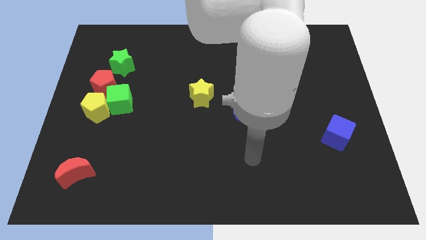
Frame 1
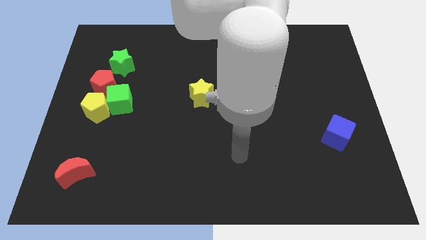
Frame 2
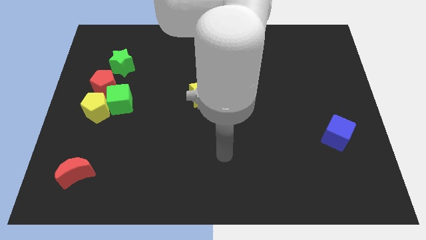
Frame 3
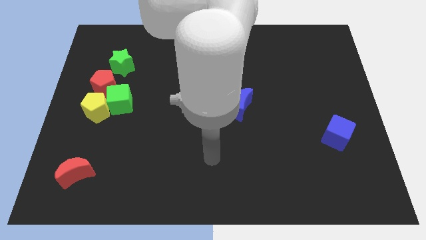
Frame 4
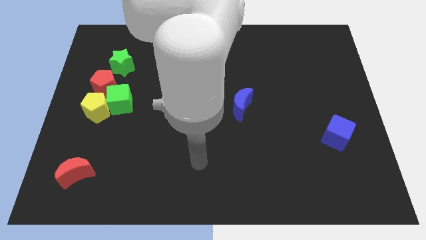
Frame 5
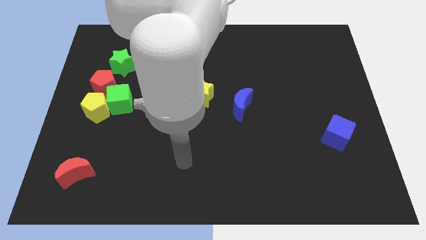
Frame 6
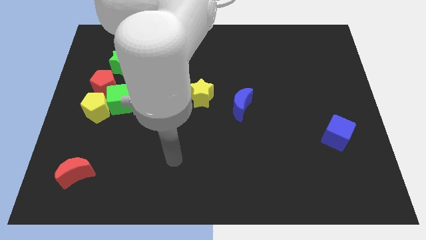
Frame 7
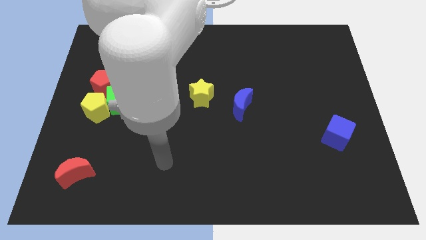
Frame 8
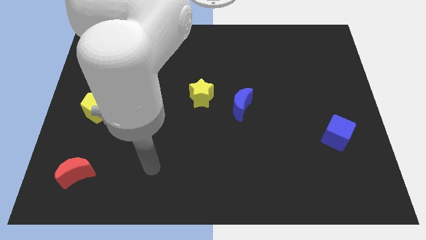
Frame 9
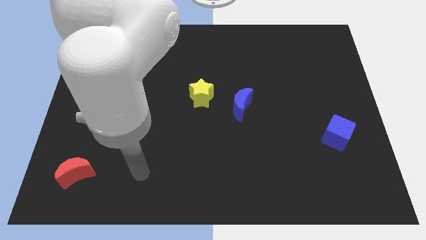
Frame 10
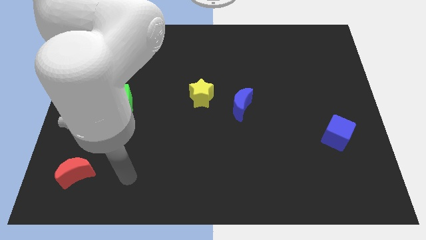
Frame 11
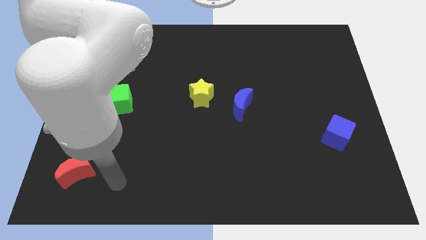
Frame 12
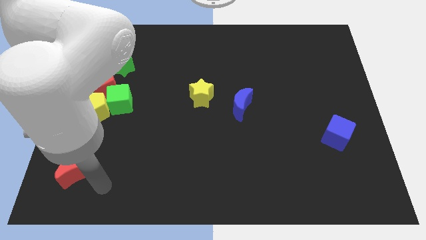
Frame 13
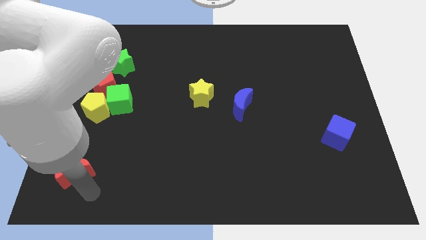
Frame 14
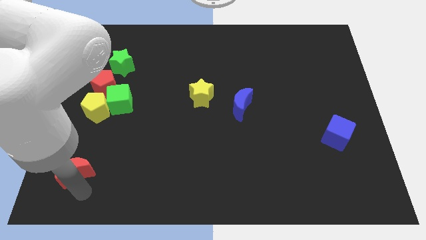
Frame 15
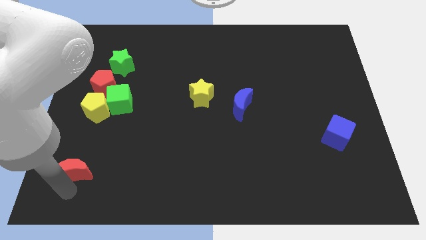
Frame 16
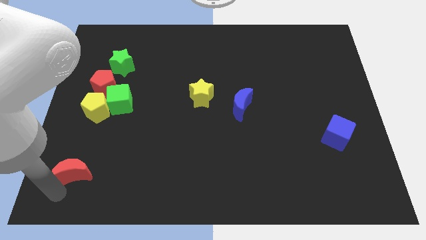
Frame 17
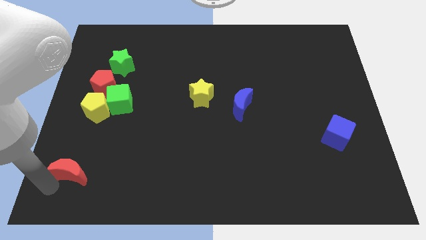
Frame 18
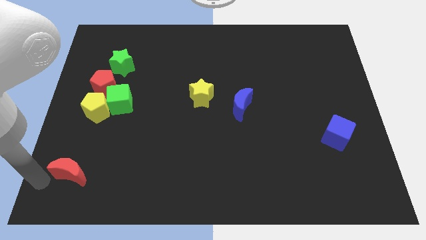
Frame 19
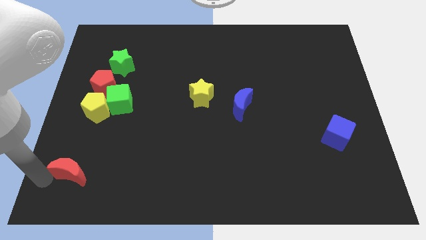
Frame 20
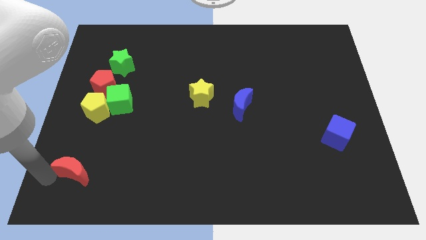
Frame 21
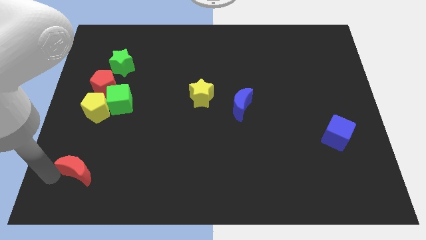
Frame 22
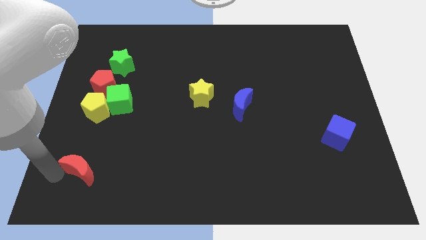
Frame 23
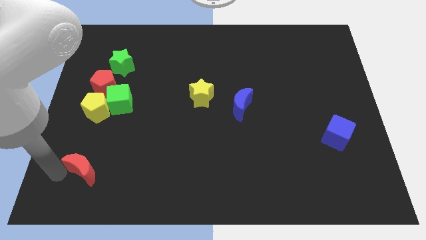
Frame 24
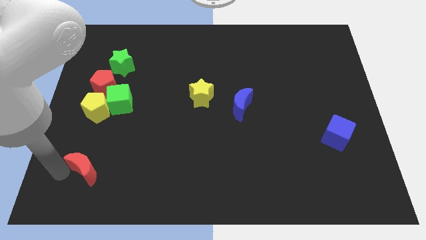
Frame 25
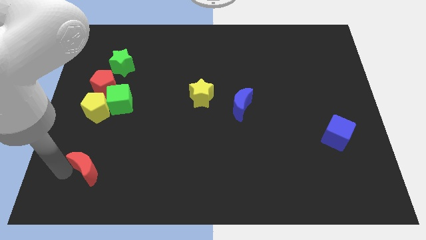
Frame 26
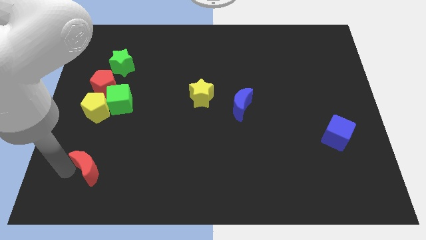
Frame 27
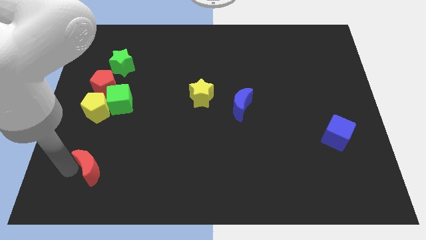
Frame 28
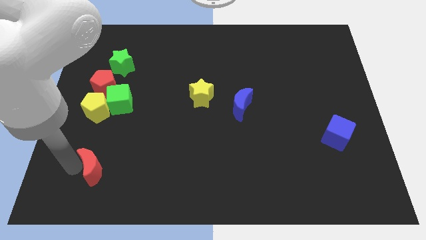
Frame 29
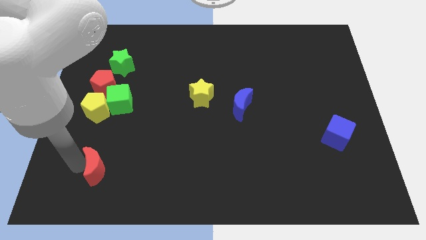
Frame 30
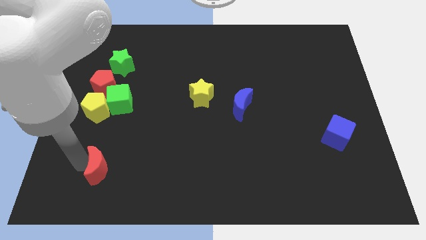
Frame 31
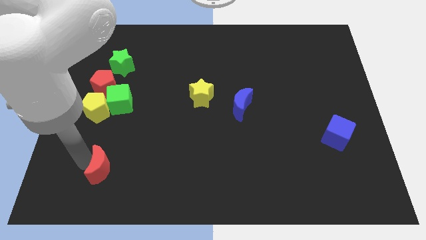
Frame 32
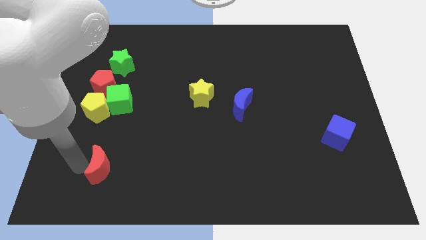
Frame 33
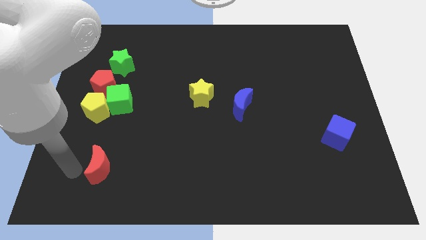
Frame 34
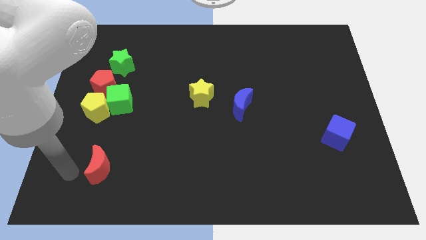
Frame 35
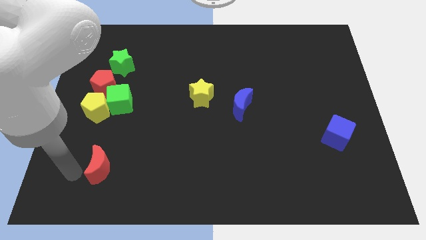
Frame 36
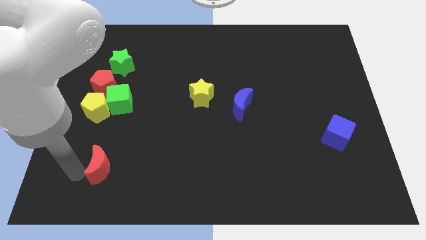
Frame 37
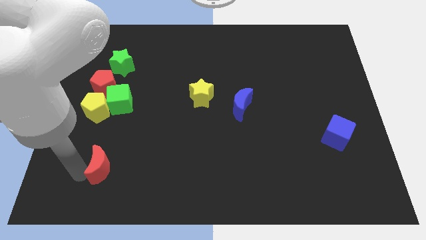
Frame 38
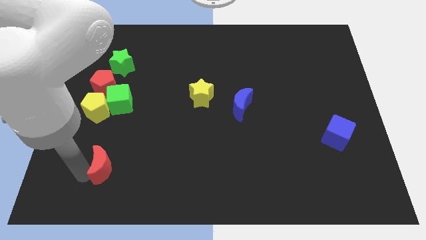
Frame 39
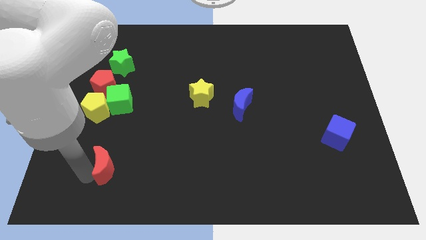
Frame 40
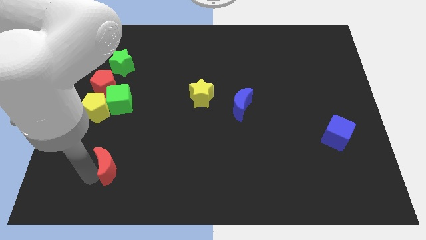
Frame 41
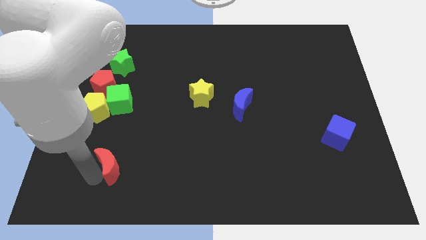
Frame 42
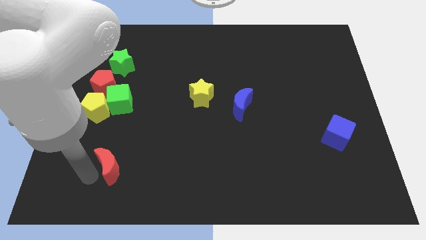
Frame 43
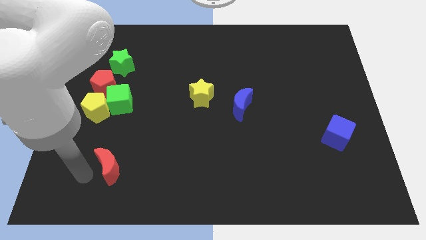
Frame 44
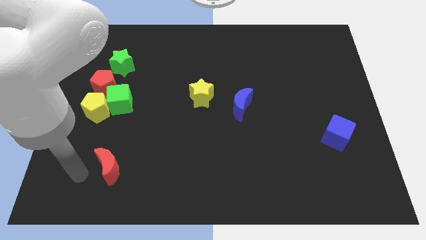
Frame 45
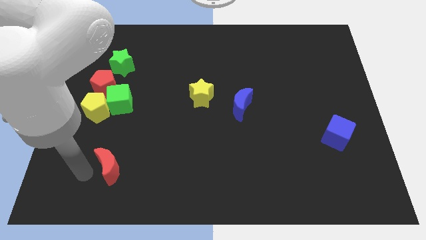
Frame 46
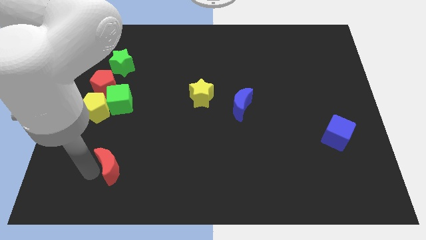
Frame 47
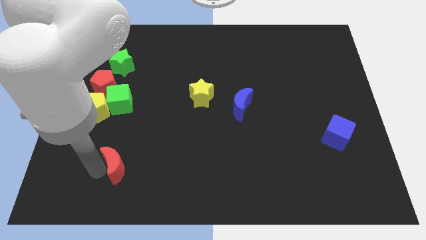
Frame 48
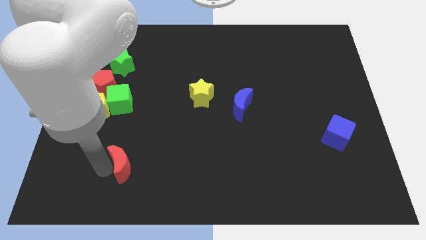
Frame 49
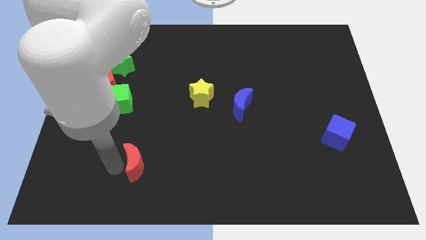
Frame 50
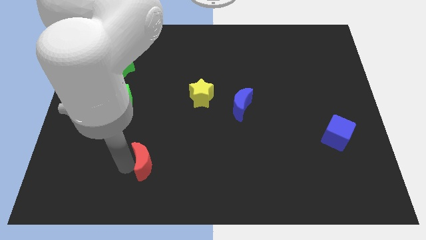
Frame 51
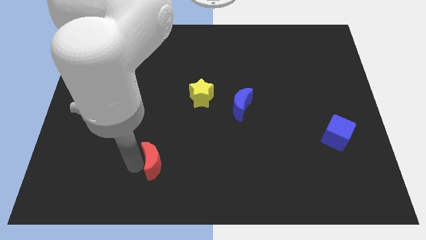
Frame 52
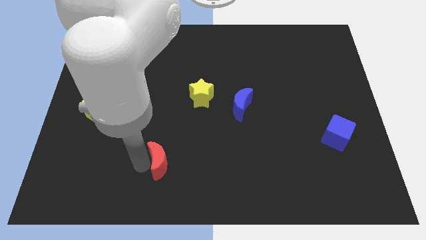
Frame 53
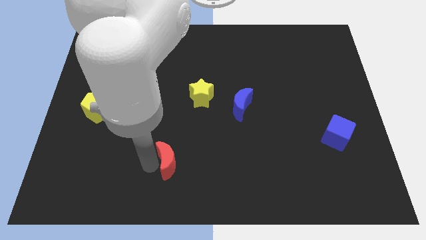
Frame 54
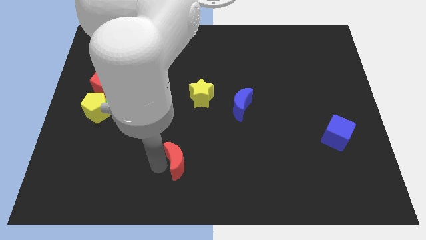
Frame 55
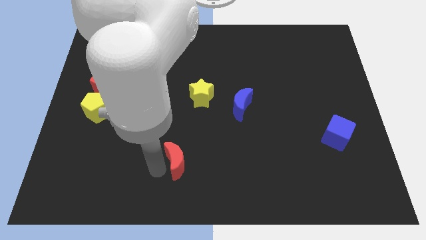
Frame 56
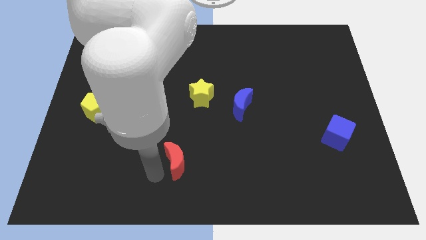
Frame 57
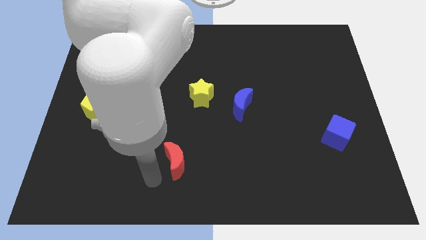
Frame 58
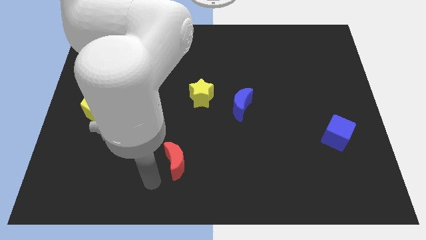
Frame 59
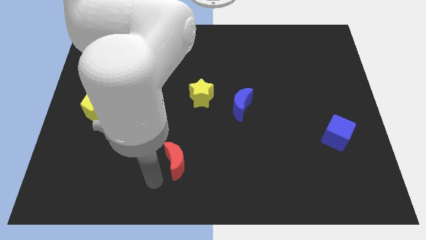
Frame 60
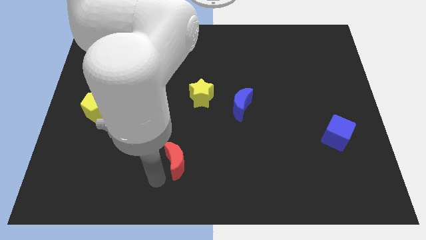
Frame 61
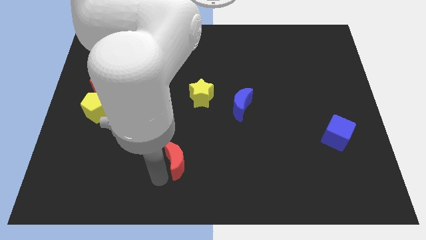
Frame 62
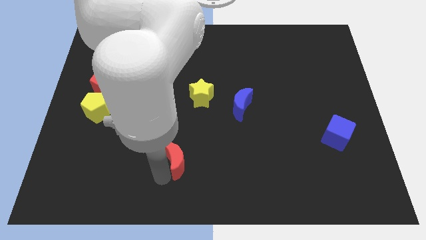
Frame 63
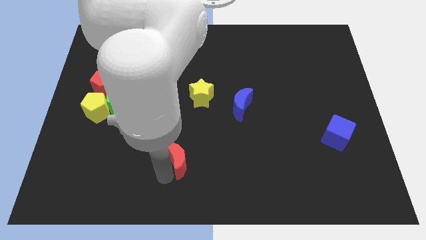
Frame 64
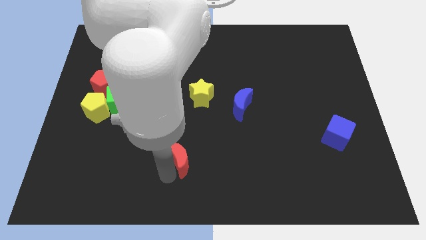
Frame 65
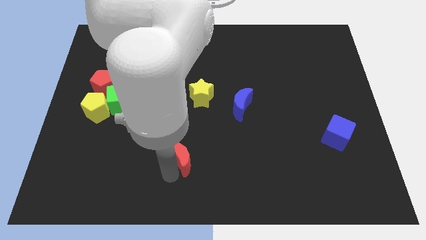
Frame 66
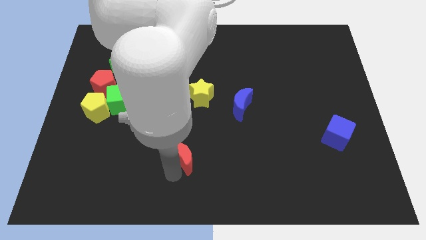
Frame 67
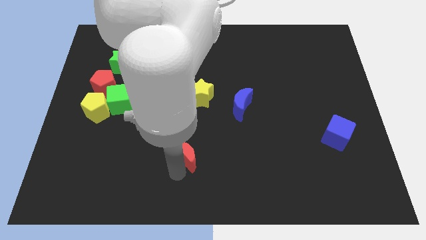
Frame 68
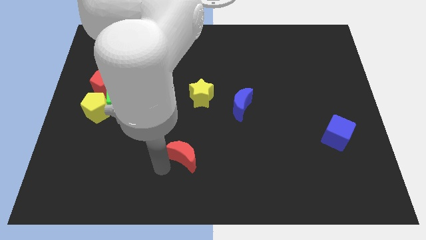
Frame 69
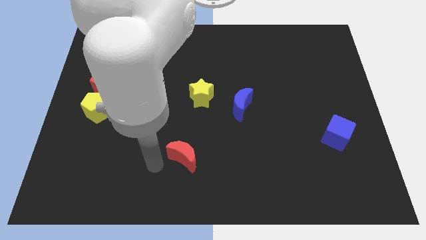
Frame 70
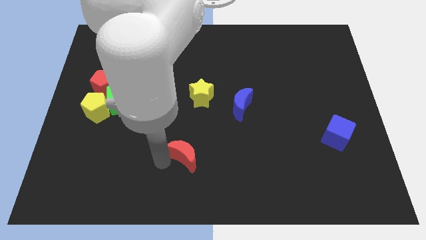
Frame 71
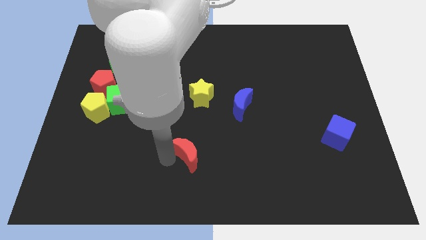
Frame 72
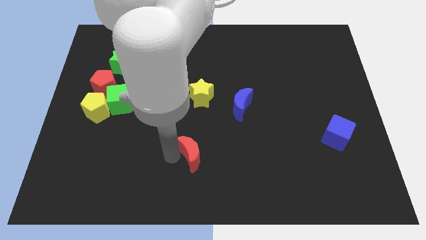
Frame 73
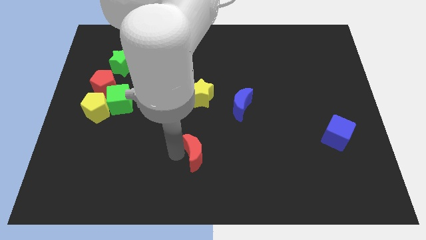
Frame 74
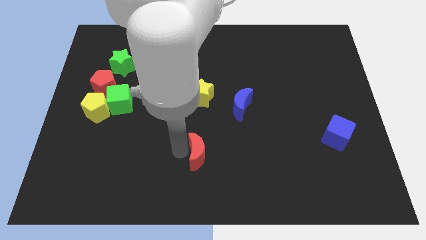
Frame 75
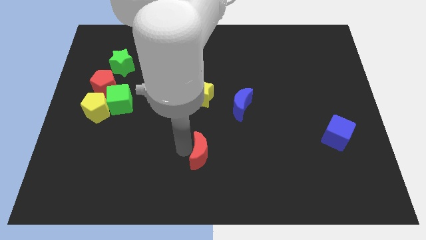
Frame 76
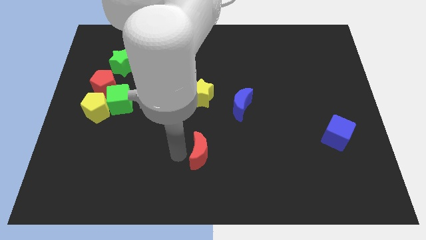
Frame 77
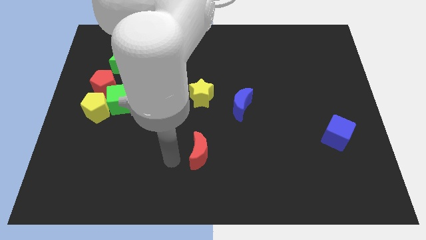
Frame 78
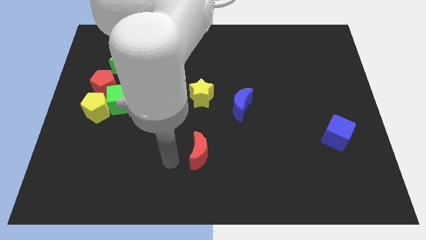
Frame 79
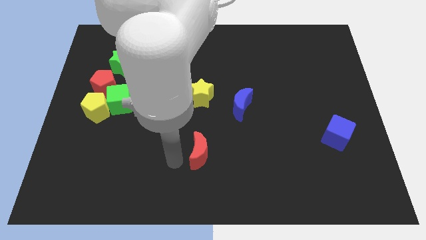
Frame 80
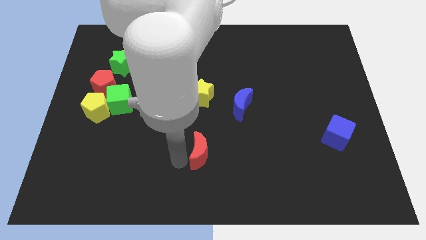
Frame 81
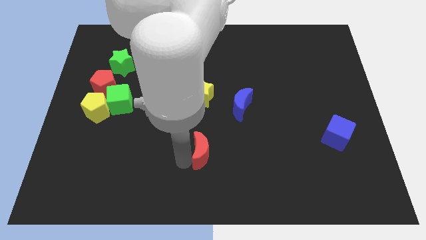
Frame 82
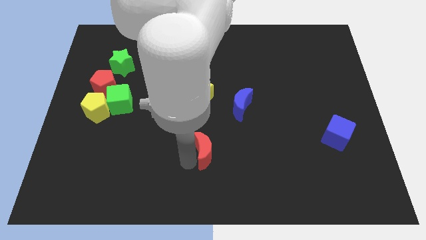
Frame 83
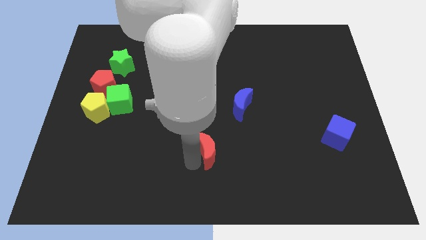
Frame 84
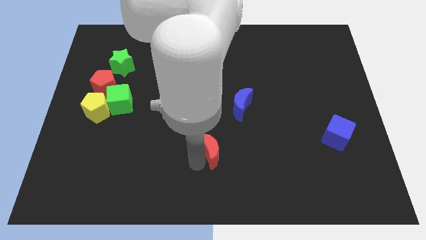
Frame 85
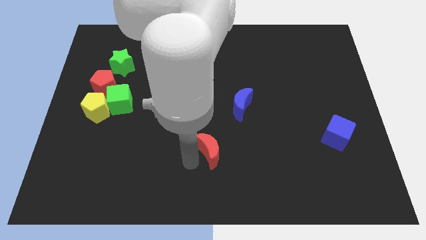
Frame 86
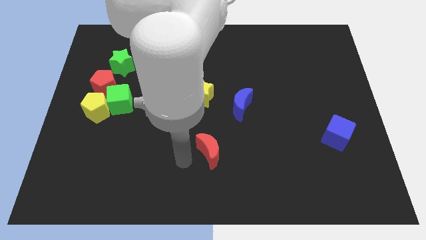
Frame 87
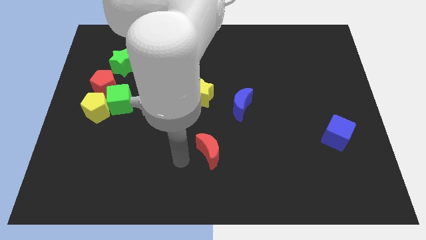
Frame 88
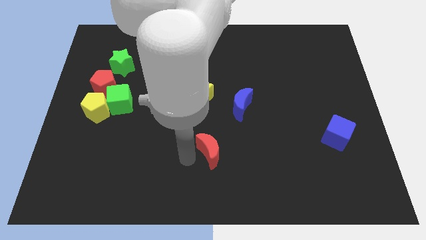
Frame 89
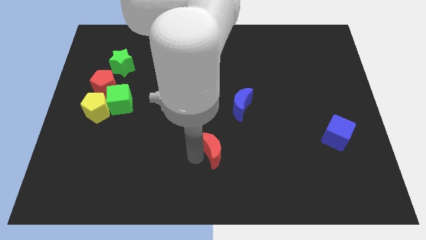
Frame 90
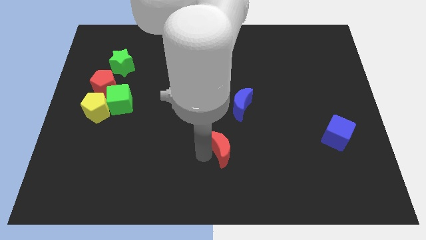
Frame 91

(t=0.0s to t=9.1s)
slide the red moon to the bottom side of the blue moon
